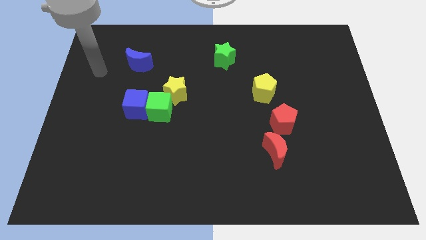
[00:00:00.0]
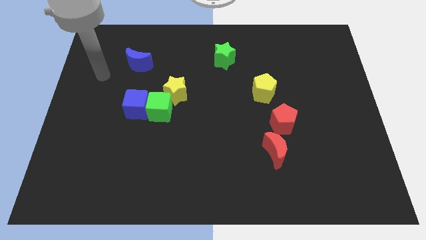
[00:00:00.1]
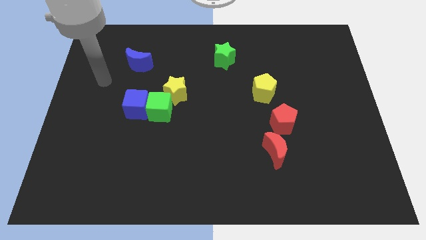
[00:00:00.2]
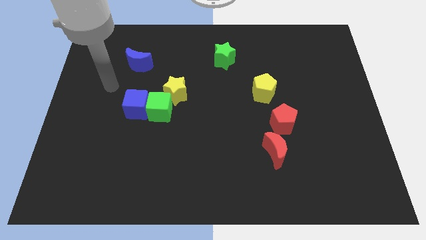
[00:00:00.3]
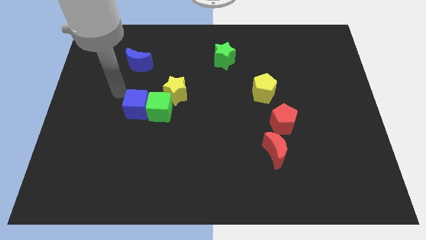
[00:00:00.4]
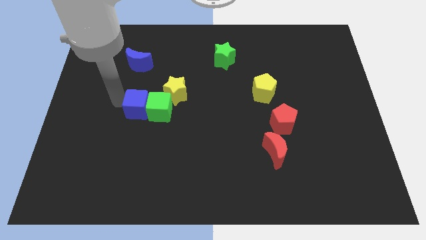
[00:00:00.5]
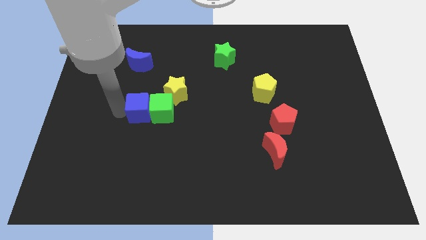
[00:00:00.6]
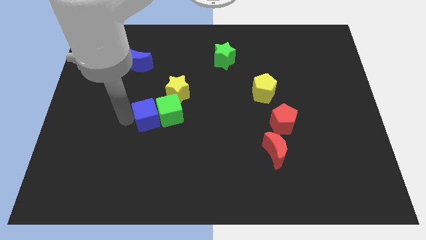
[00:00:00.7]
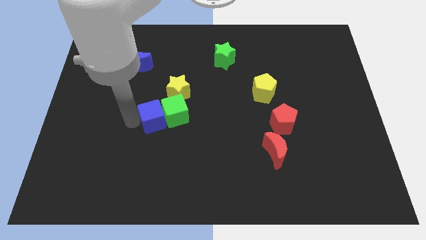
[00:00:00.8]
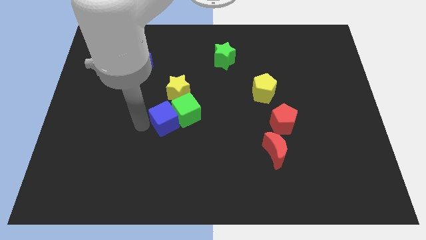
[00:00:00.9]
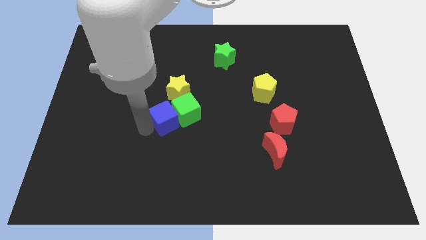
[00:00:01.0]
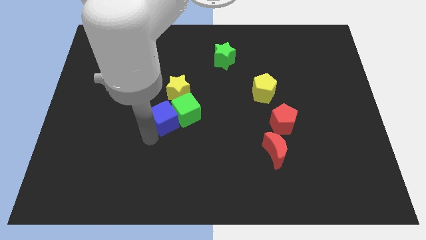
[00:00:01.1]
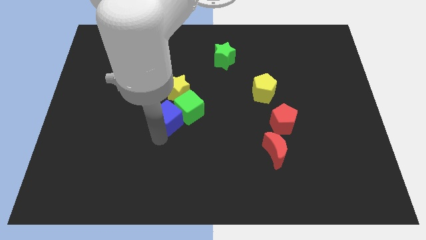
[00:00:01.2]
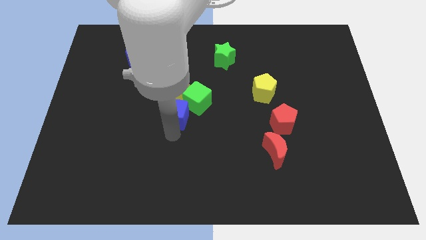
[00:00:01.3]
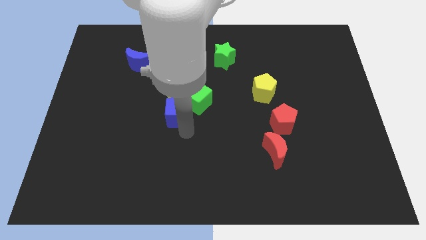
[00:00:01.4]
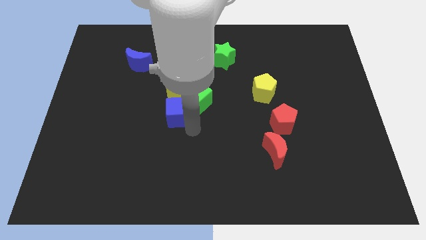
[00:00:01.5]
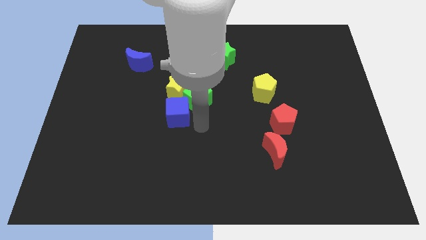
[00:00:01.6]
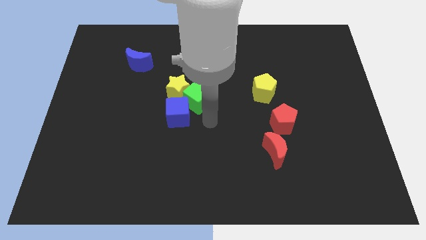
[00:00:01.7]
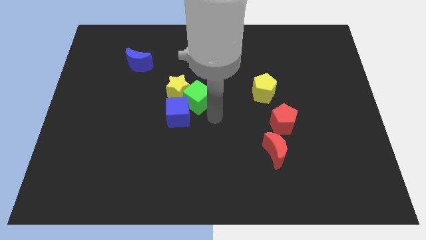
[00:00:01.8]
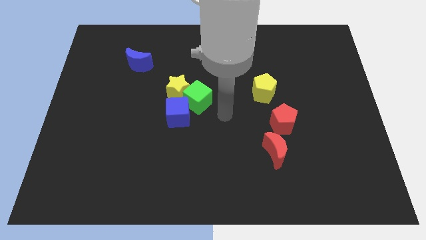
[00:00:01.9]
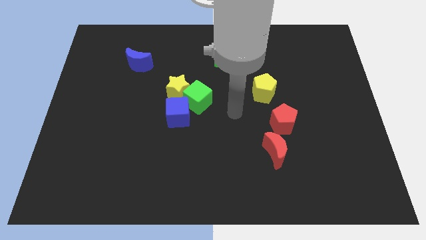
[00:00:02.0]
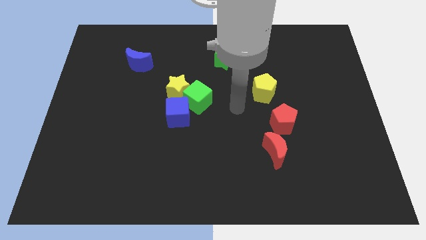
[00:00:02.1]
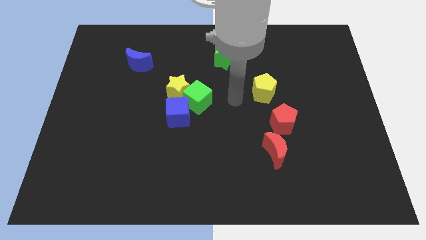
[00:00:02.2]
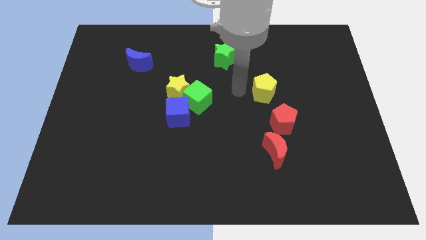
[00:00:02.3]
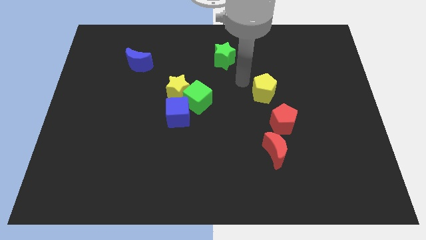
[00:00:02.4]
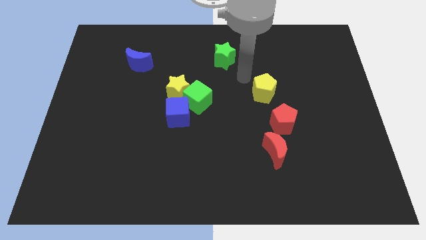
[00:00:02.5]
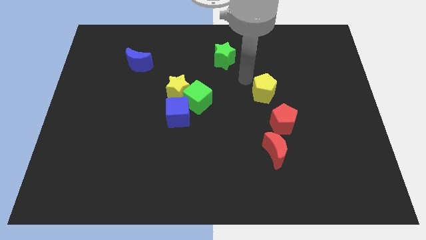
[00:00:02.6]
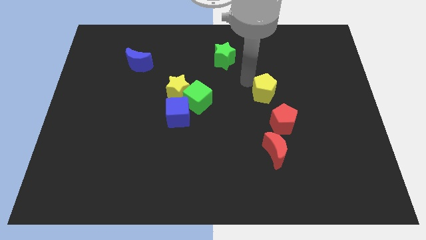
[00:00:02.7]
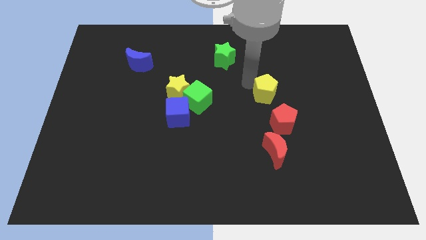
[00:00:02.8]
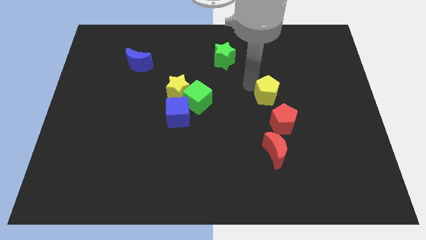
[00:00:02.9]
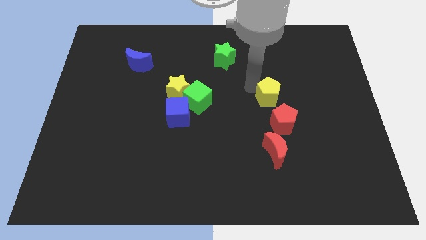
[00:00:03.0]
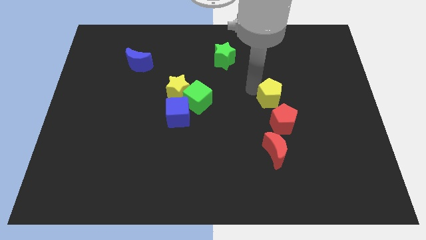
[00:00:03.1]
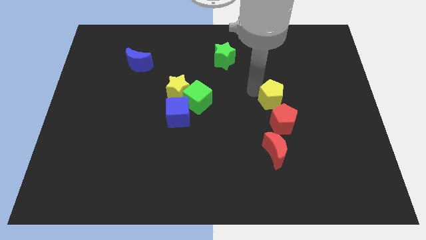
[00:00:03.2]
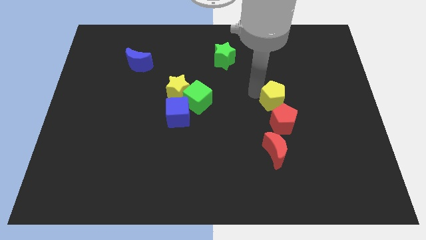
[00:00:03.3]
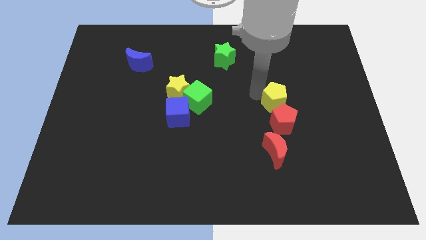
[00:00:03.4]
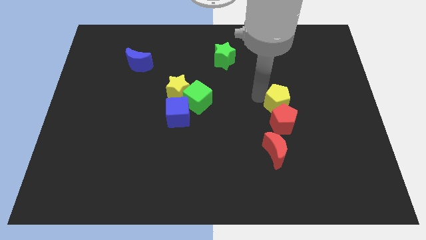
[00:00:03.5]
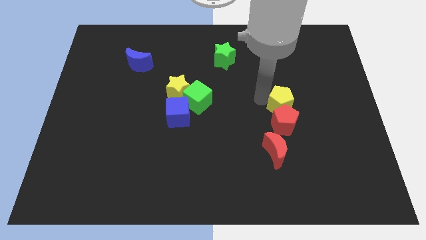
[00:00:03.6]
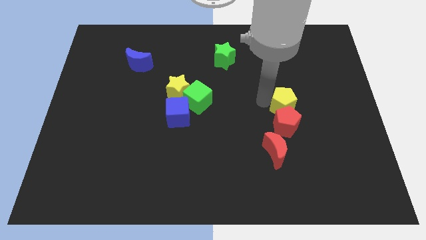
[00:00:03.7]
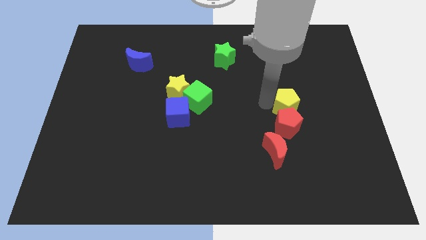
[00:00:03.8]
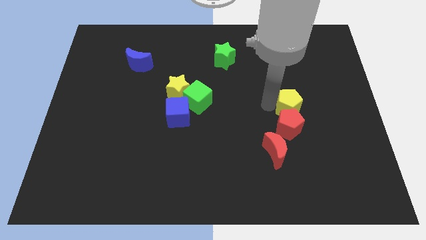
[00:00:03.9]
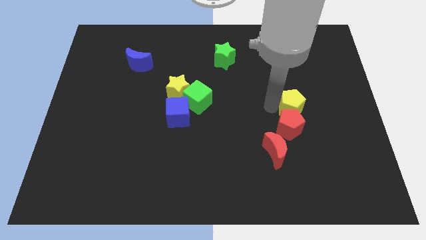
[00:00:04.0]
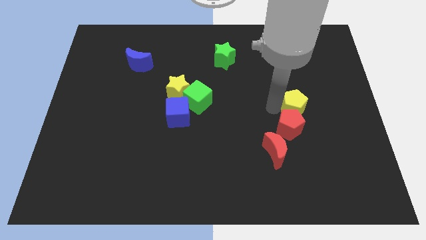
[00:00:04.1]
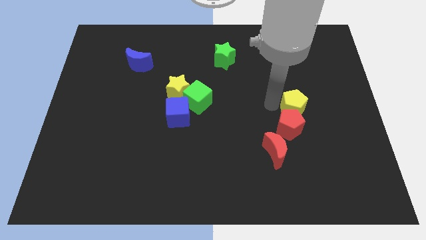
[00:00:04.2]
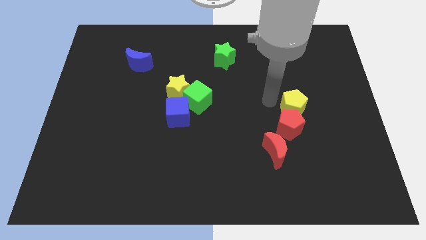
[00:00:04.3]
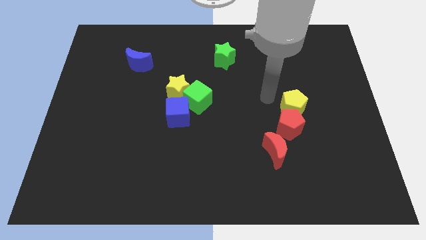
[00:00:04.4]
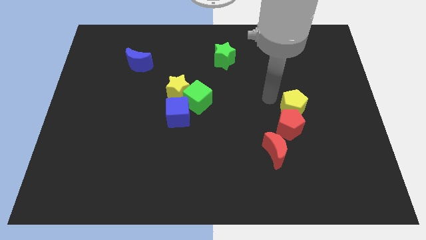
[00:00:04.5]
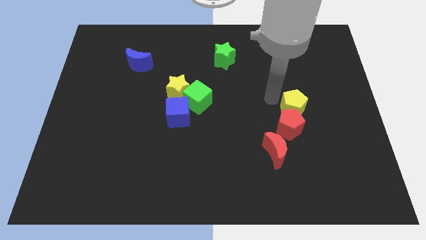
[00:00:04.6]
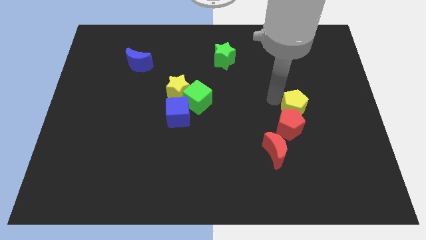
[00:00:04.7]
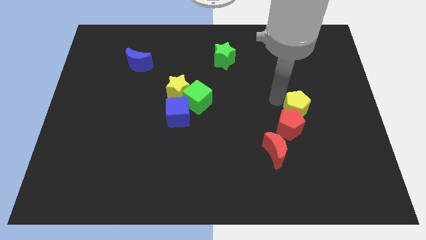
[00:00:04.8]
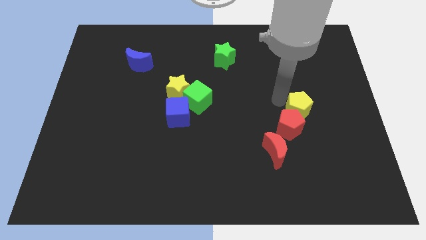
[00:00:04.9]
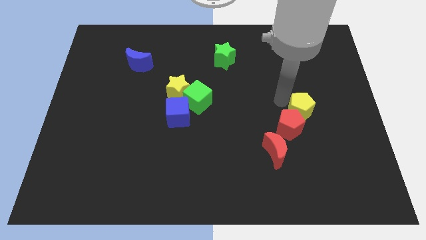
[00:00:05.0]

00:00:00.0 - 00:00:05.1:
put the yellow pentagon just right of the red pentagon

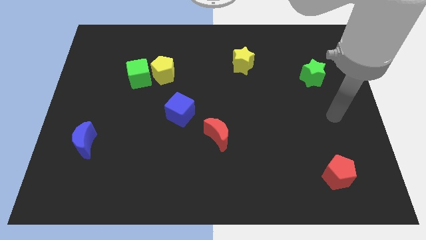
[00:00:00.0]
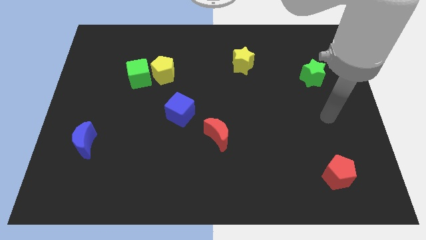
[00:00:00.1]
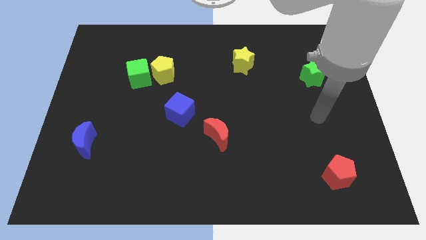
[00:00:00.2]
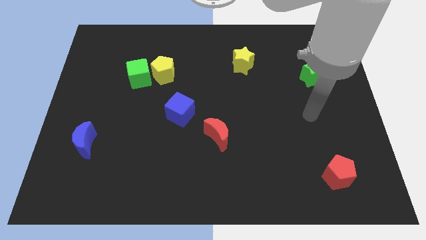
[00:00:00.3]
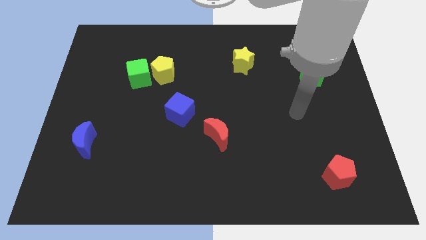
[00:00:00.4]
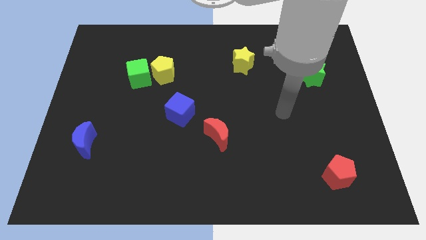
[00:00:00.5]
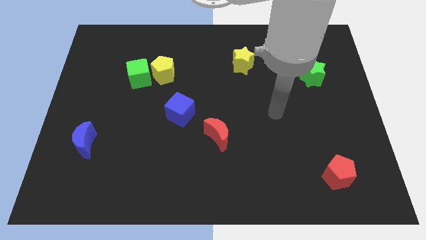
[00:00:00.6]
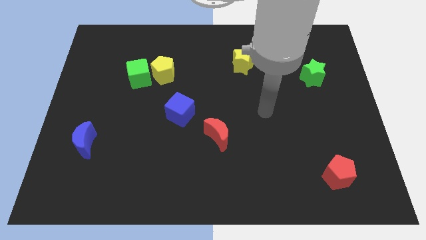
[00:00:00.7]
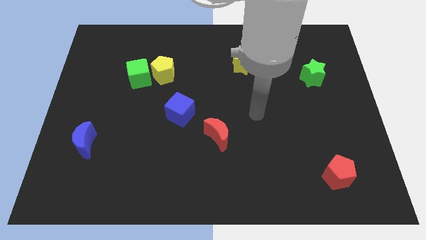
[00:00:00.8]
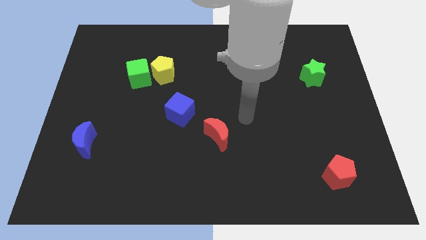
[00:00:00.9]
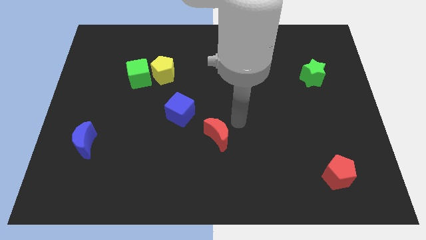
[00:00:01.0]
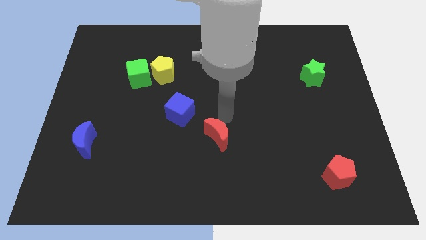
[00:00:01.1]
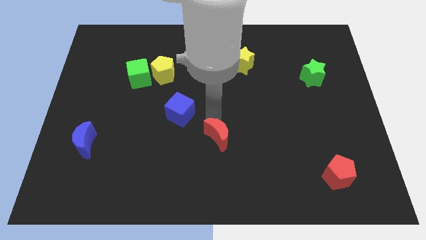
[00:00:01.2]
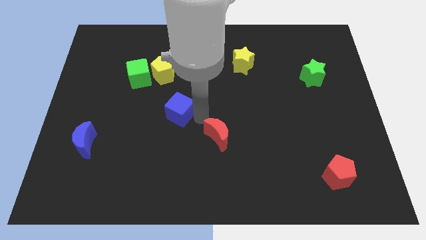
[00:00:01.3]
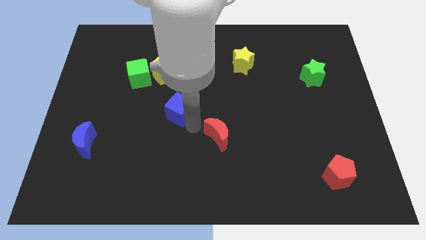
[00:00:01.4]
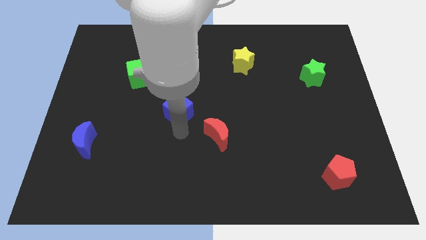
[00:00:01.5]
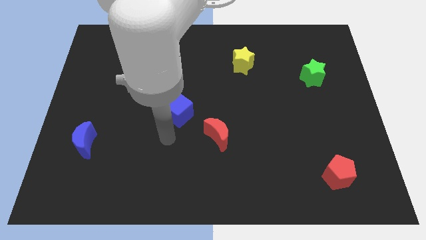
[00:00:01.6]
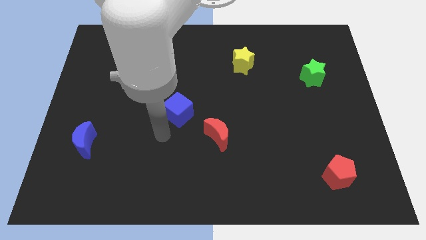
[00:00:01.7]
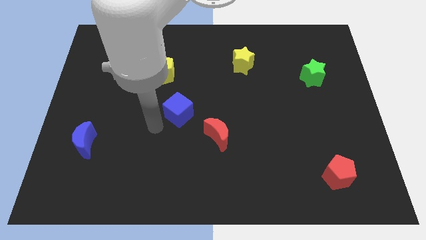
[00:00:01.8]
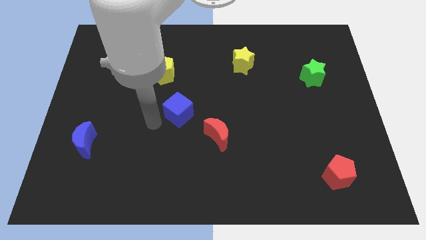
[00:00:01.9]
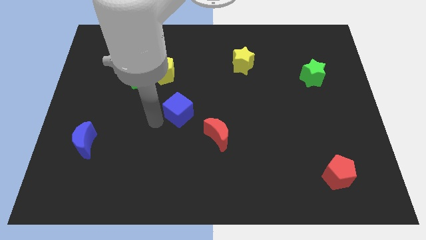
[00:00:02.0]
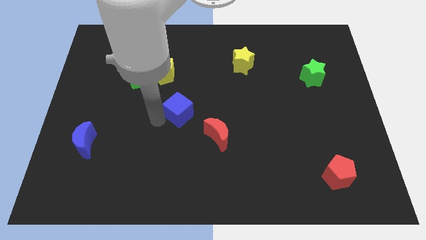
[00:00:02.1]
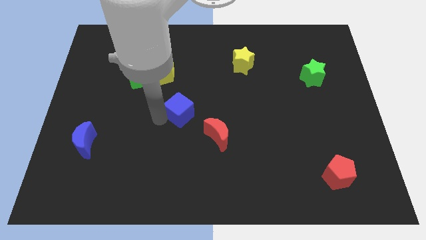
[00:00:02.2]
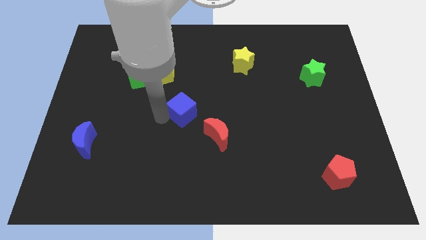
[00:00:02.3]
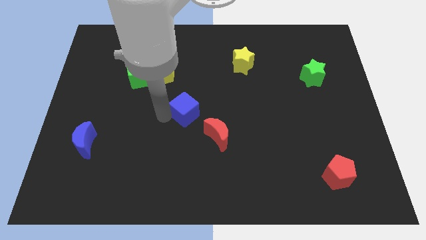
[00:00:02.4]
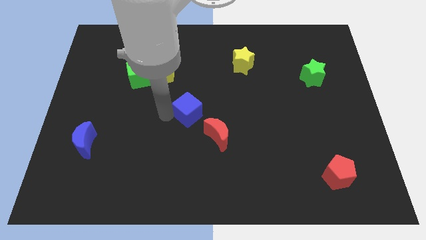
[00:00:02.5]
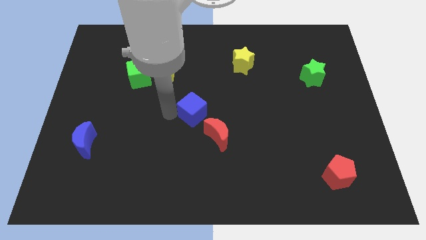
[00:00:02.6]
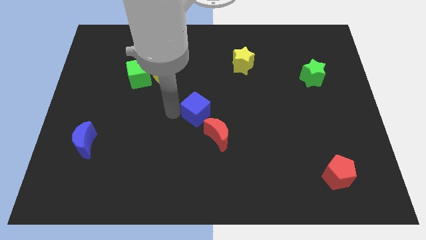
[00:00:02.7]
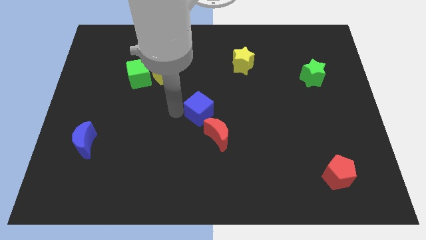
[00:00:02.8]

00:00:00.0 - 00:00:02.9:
put the blue cube above the red moon
